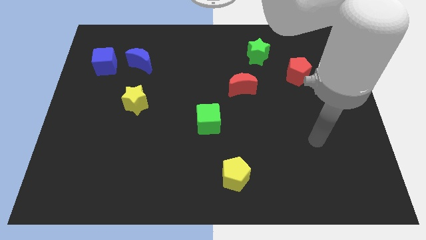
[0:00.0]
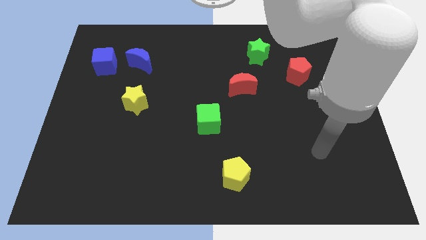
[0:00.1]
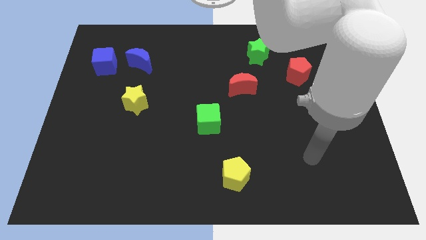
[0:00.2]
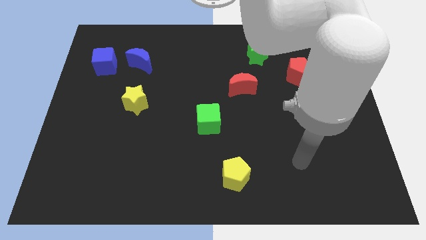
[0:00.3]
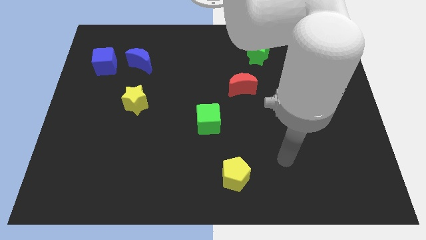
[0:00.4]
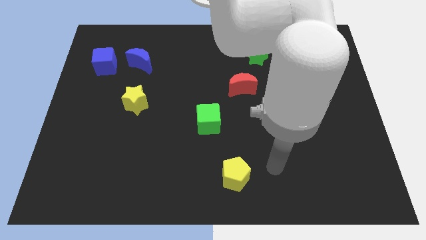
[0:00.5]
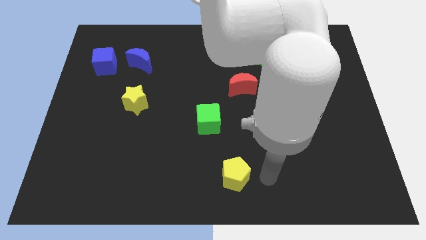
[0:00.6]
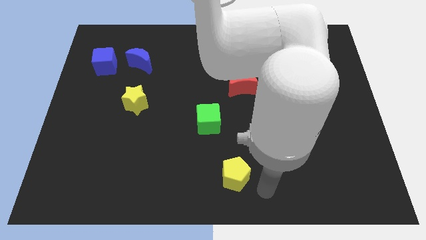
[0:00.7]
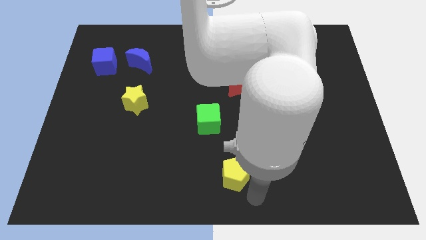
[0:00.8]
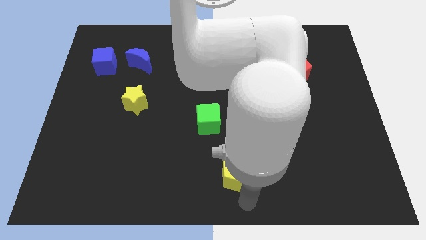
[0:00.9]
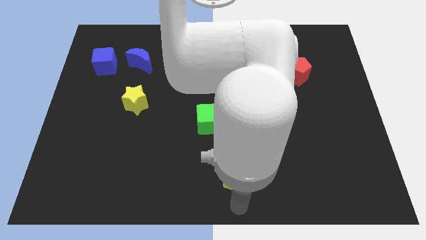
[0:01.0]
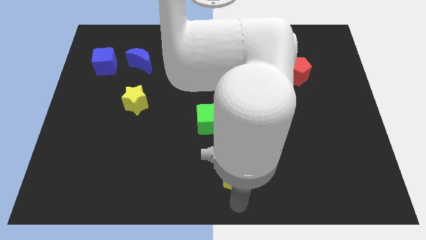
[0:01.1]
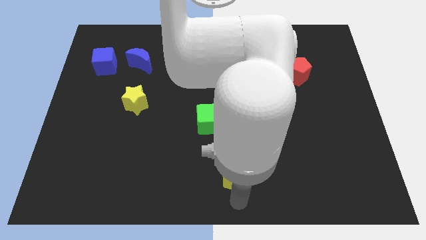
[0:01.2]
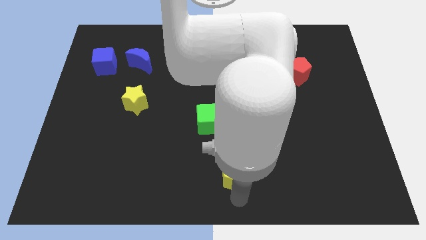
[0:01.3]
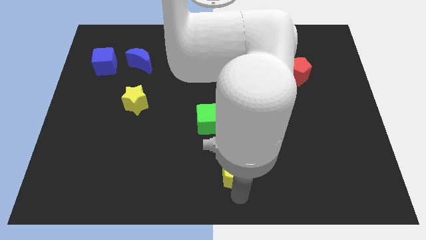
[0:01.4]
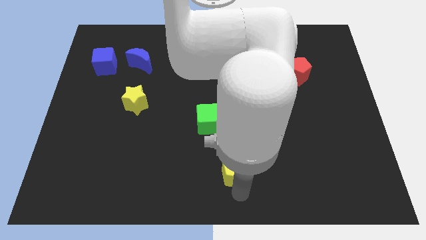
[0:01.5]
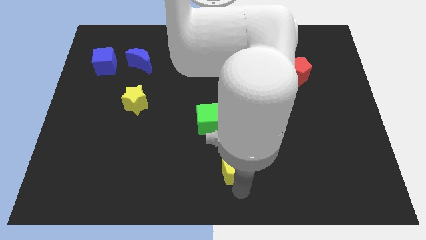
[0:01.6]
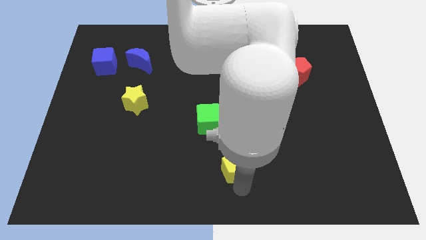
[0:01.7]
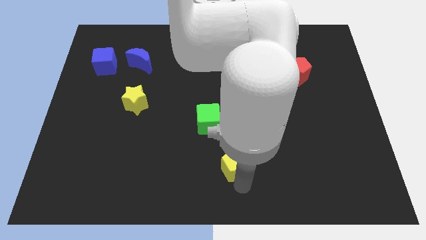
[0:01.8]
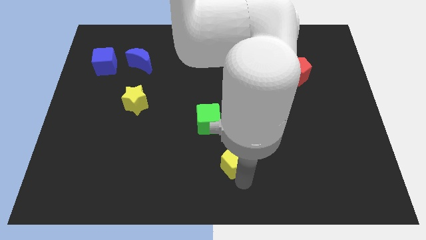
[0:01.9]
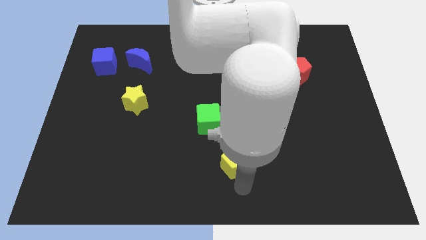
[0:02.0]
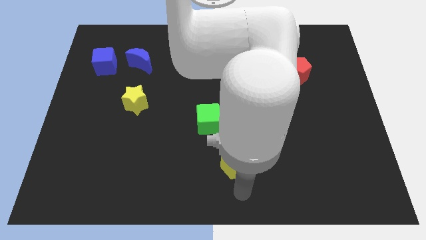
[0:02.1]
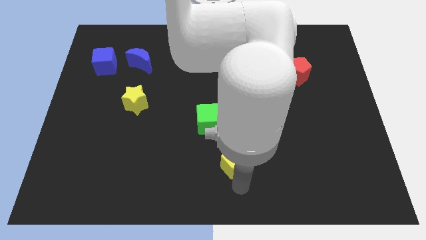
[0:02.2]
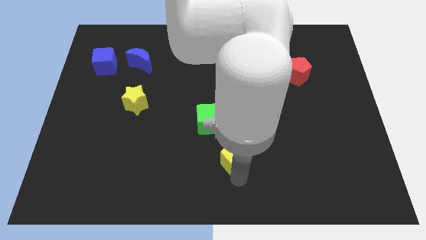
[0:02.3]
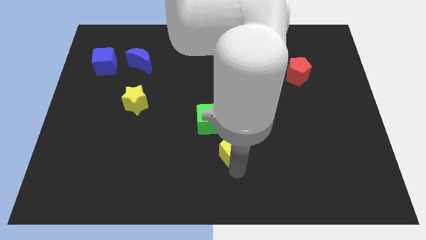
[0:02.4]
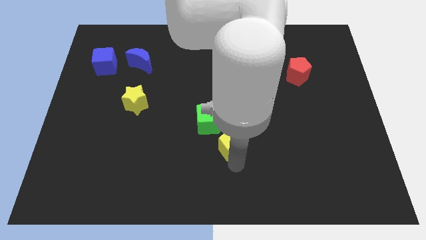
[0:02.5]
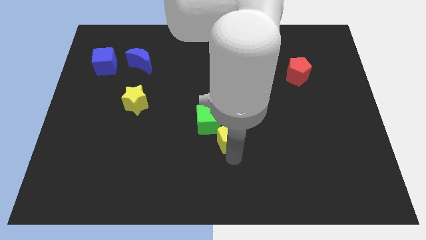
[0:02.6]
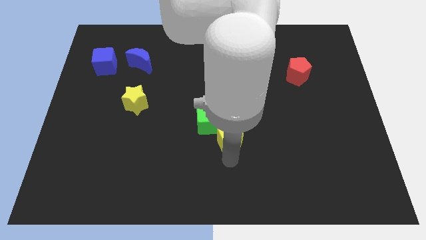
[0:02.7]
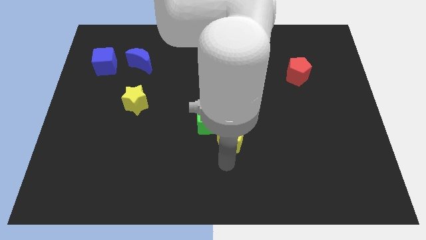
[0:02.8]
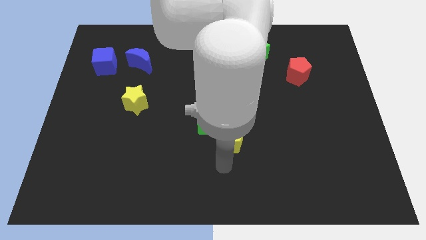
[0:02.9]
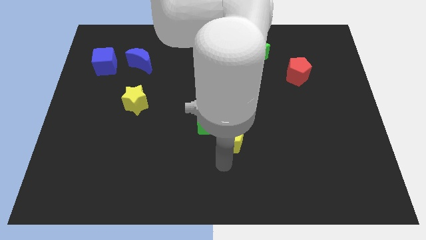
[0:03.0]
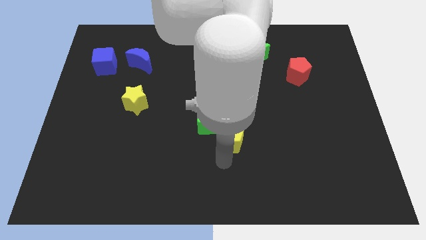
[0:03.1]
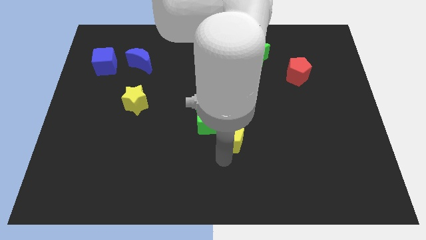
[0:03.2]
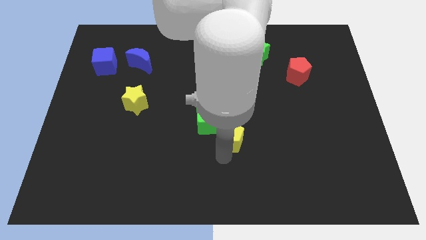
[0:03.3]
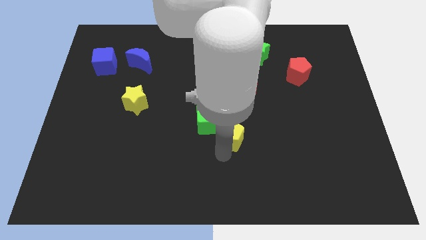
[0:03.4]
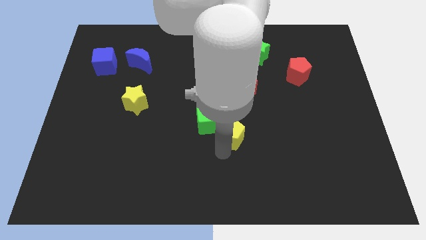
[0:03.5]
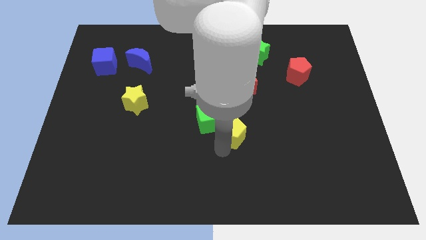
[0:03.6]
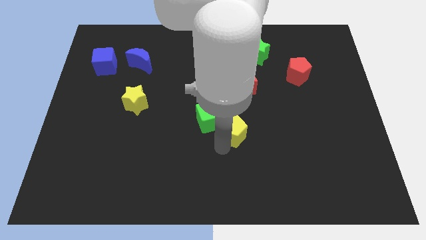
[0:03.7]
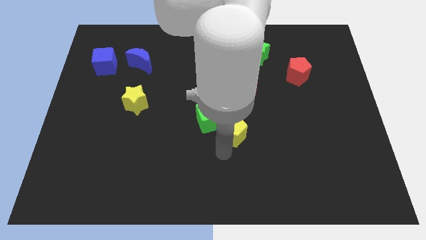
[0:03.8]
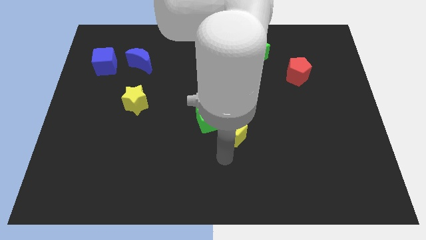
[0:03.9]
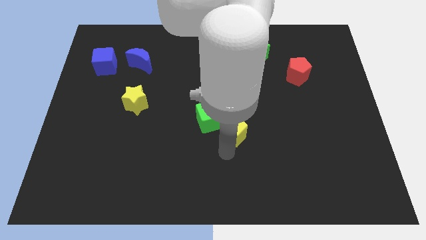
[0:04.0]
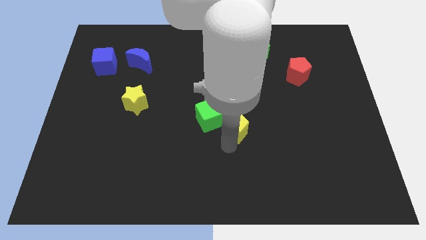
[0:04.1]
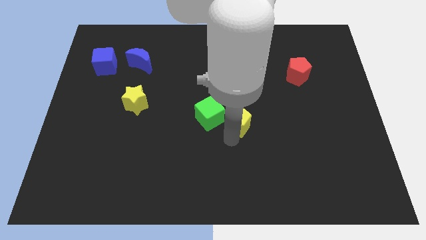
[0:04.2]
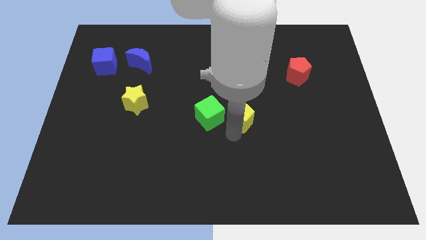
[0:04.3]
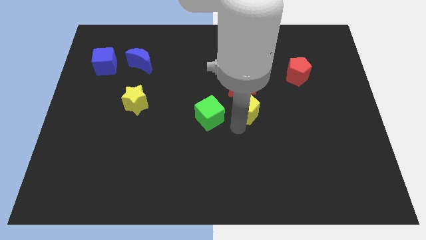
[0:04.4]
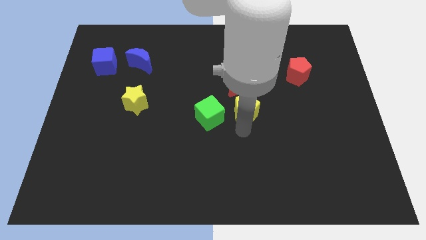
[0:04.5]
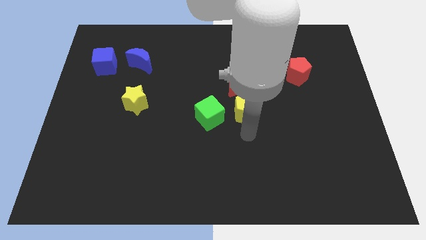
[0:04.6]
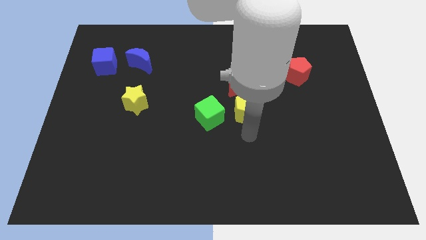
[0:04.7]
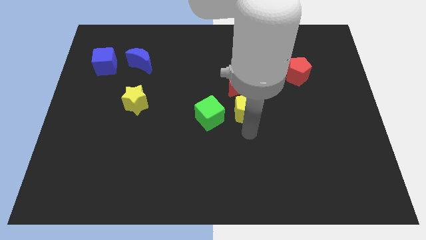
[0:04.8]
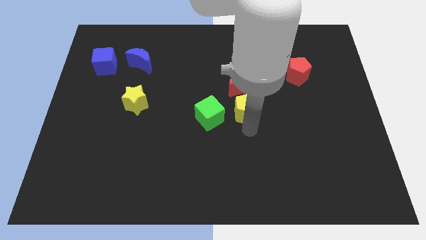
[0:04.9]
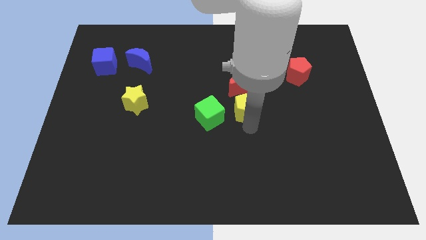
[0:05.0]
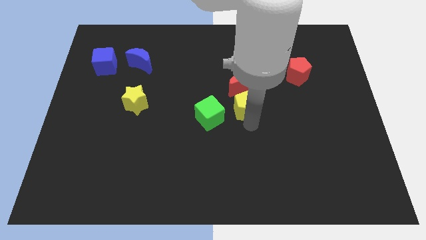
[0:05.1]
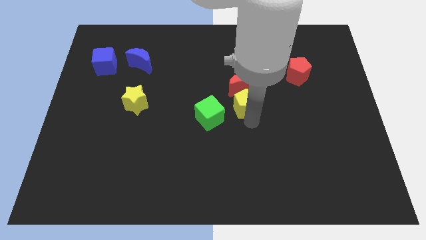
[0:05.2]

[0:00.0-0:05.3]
slide the yellow pentagon next to the red moon

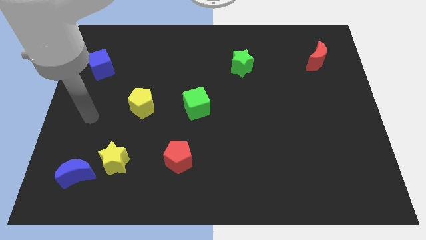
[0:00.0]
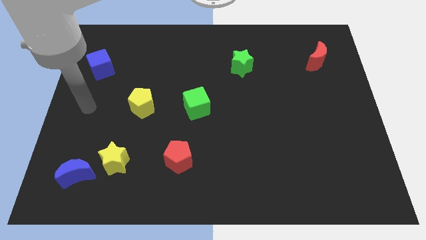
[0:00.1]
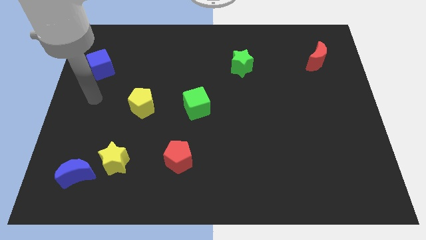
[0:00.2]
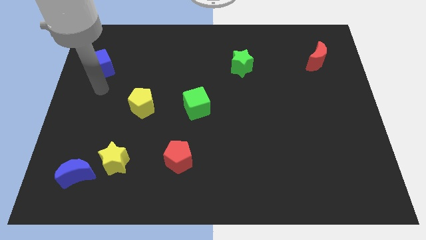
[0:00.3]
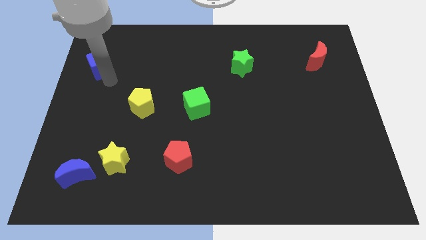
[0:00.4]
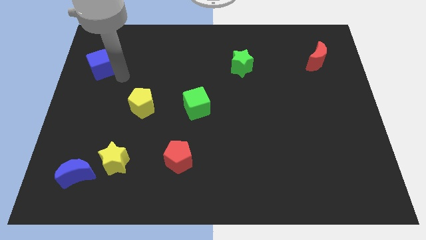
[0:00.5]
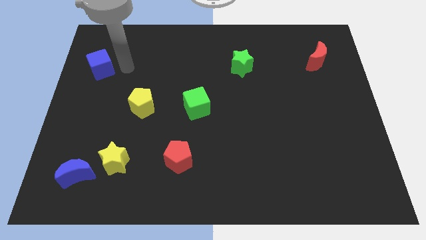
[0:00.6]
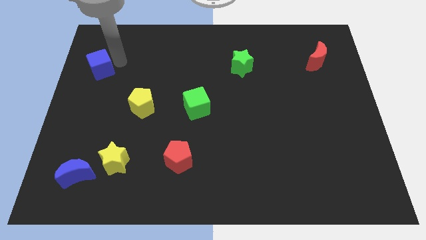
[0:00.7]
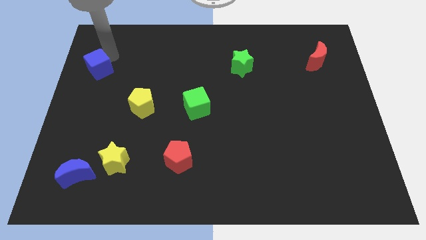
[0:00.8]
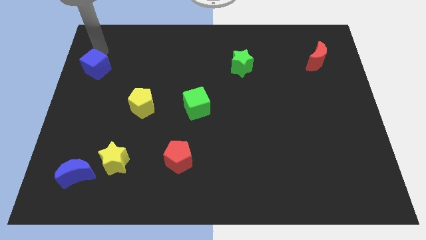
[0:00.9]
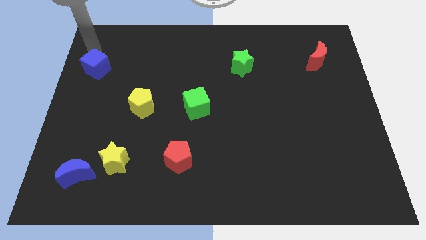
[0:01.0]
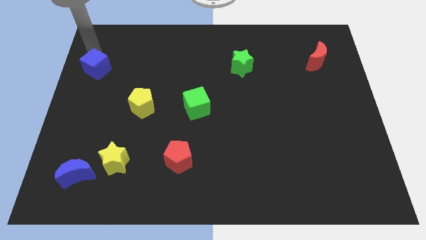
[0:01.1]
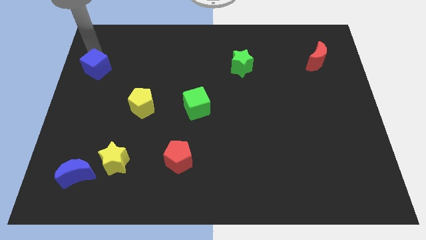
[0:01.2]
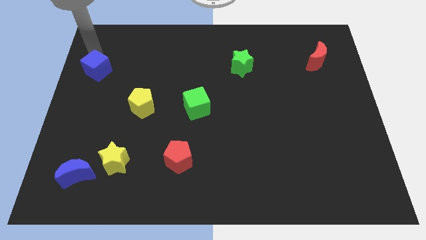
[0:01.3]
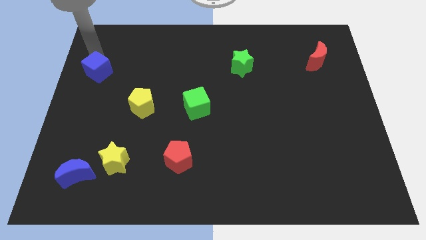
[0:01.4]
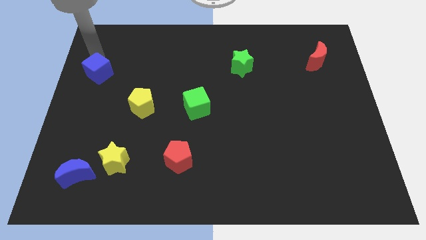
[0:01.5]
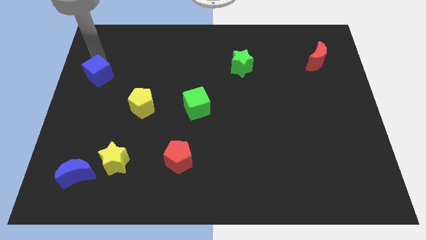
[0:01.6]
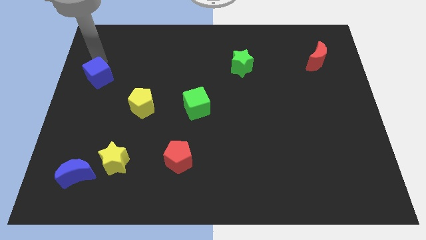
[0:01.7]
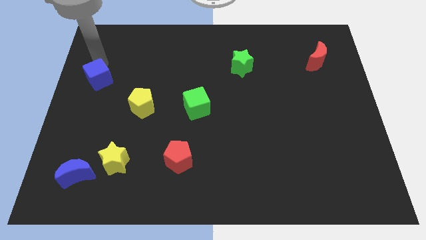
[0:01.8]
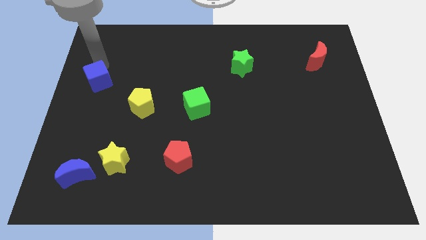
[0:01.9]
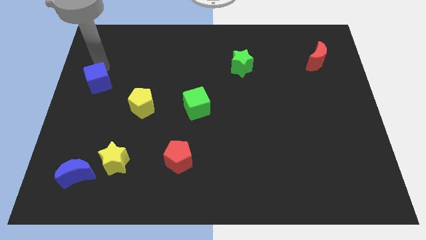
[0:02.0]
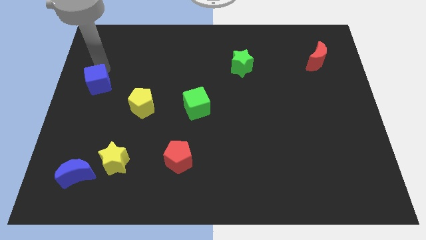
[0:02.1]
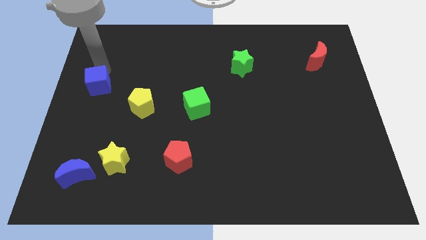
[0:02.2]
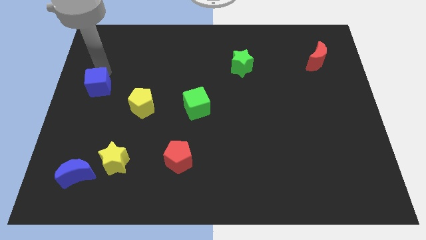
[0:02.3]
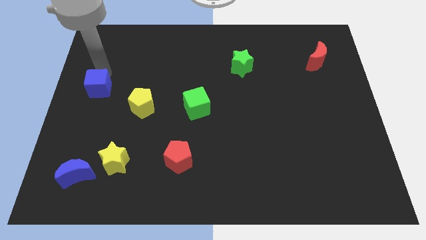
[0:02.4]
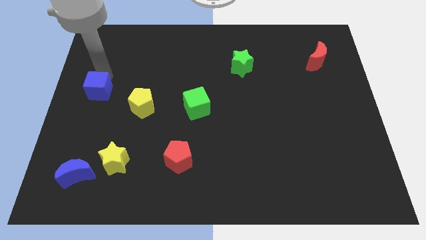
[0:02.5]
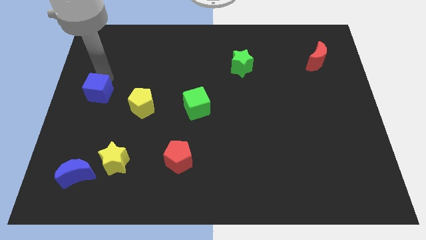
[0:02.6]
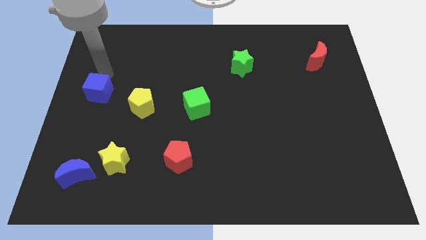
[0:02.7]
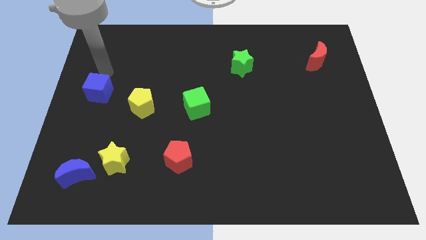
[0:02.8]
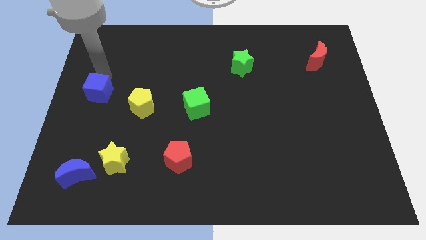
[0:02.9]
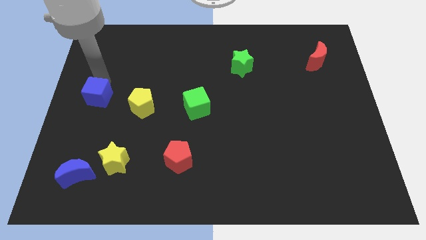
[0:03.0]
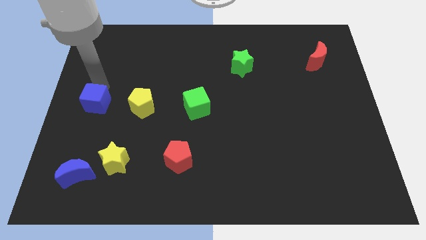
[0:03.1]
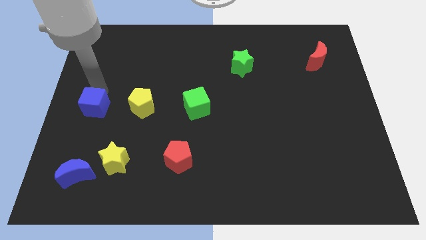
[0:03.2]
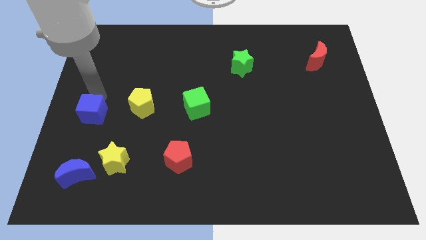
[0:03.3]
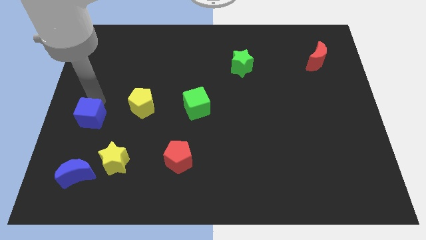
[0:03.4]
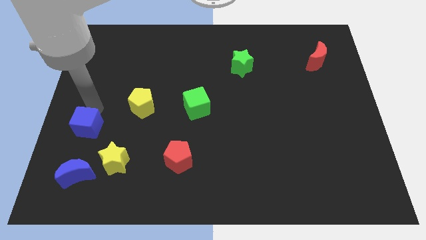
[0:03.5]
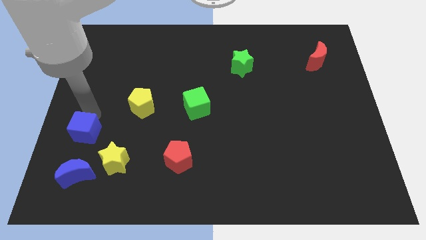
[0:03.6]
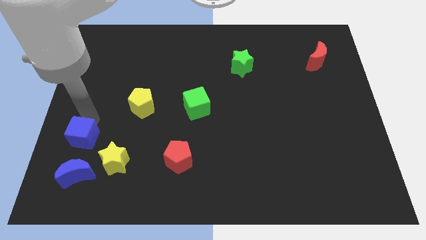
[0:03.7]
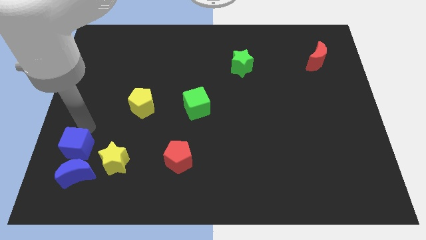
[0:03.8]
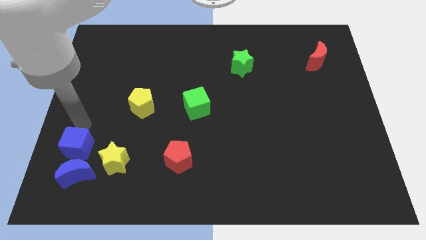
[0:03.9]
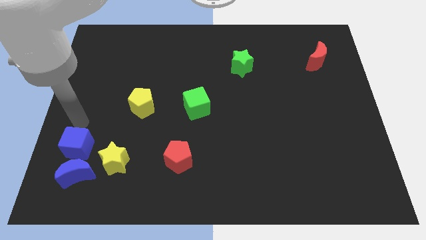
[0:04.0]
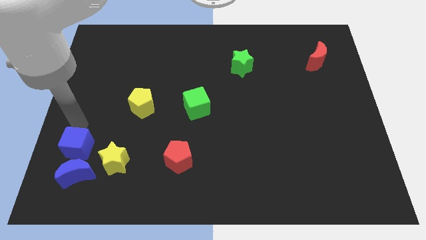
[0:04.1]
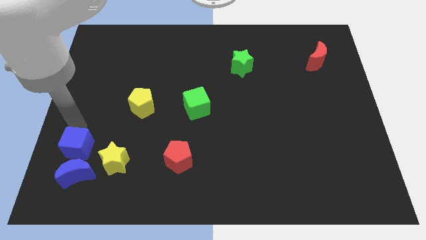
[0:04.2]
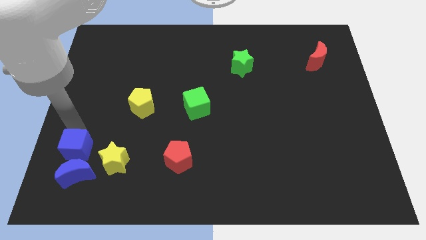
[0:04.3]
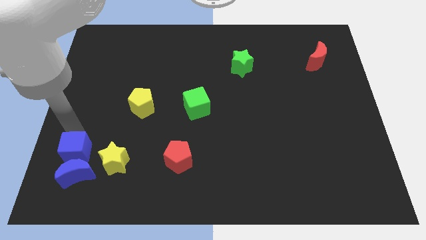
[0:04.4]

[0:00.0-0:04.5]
move the blue cube towards the blue moon
